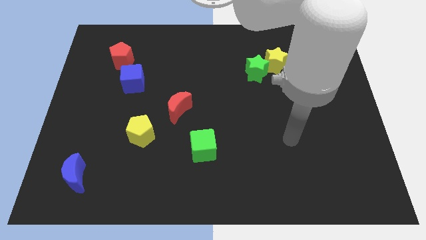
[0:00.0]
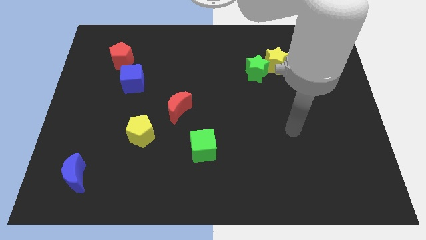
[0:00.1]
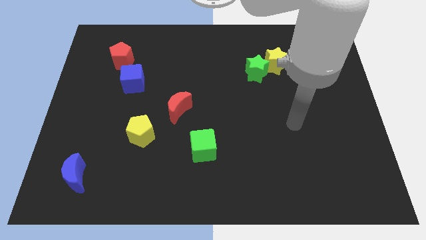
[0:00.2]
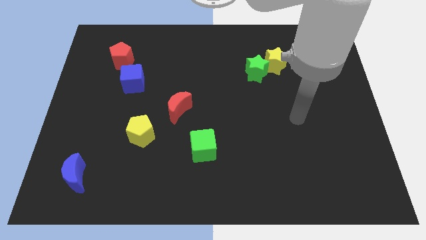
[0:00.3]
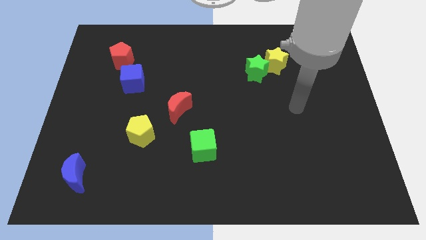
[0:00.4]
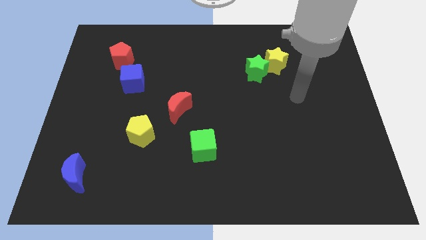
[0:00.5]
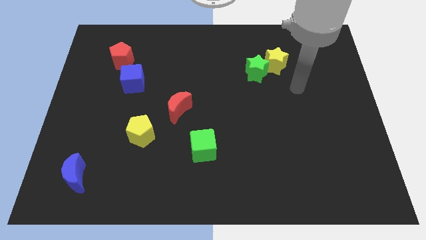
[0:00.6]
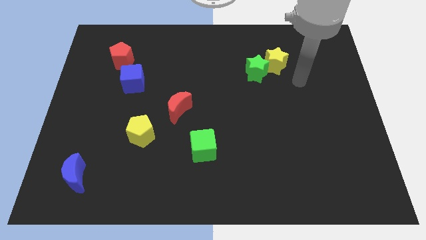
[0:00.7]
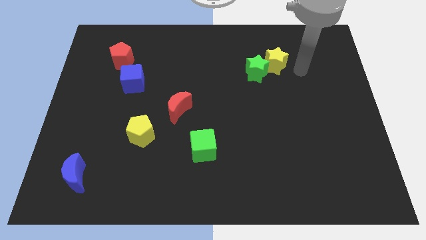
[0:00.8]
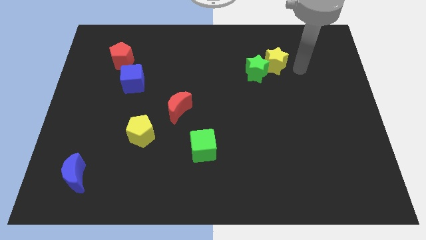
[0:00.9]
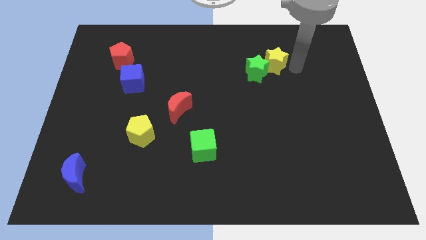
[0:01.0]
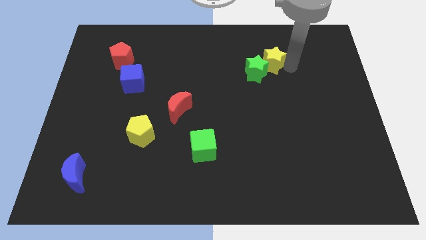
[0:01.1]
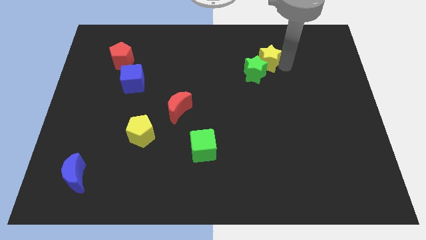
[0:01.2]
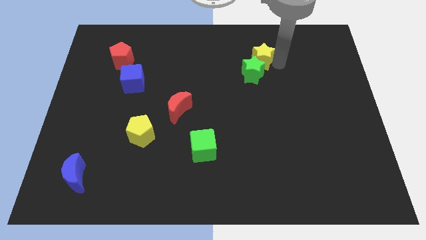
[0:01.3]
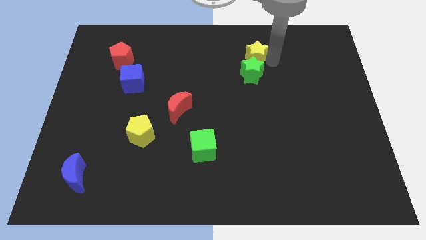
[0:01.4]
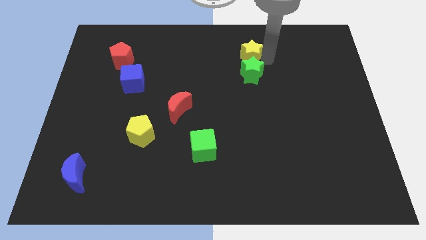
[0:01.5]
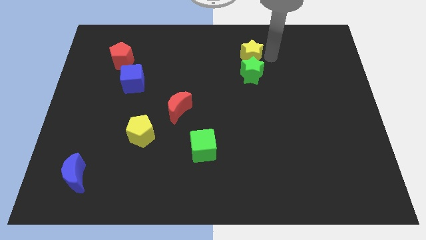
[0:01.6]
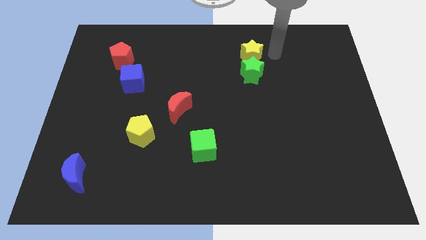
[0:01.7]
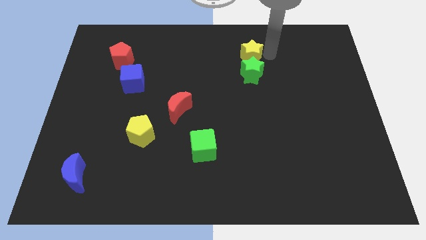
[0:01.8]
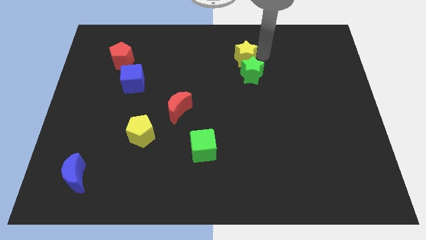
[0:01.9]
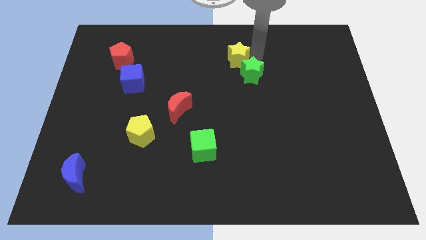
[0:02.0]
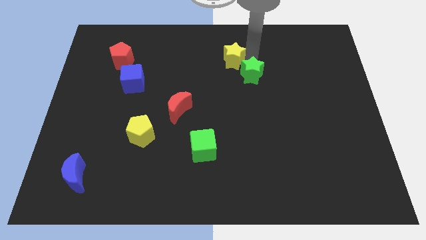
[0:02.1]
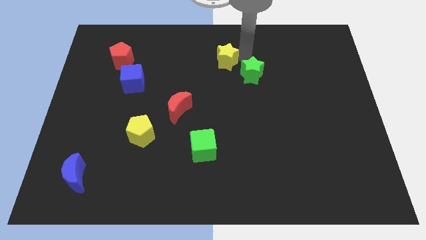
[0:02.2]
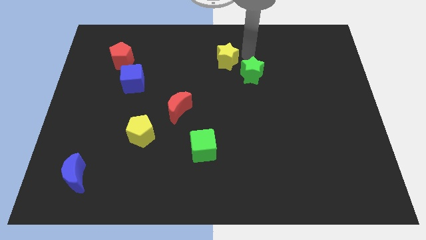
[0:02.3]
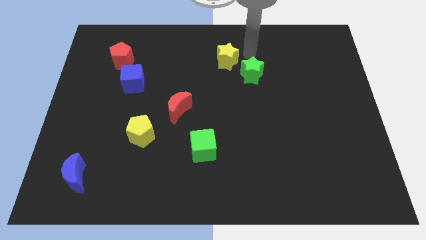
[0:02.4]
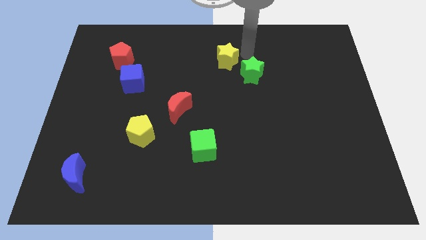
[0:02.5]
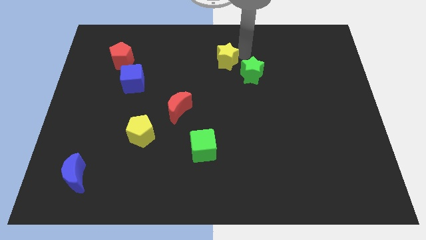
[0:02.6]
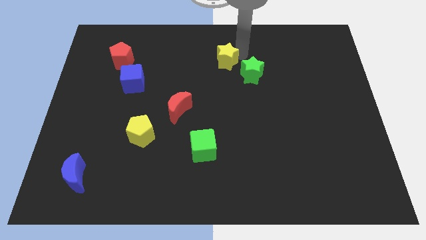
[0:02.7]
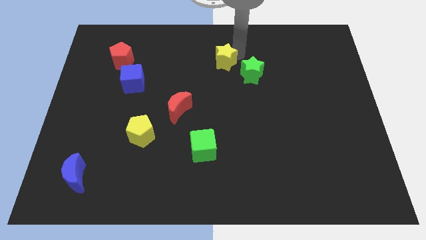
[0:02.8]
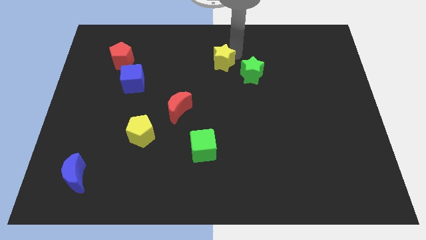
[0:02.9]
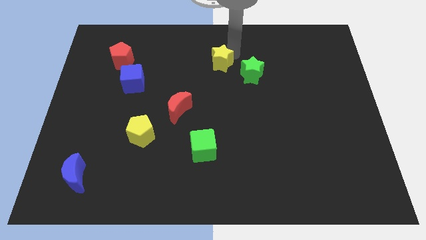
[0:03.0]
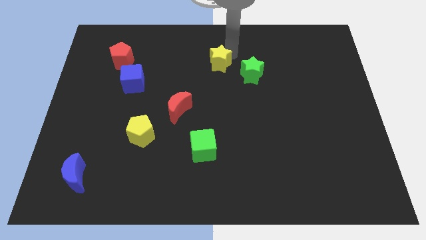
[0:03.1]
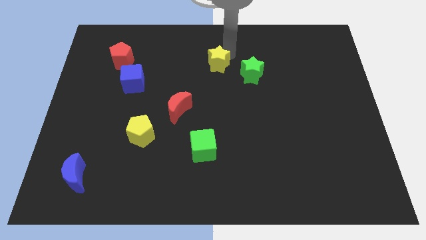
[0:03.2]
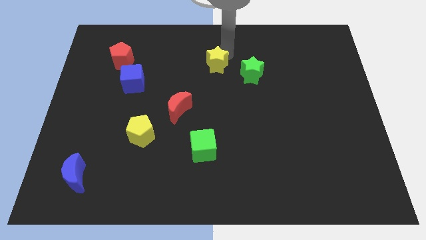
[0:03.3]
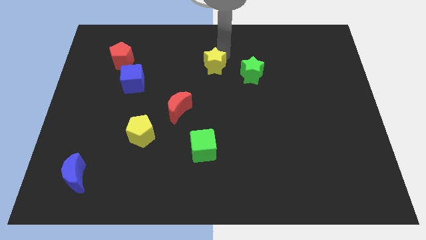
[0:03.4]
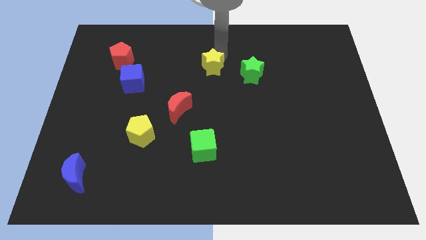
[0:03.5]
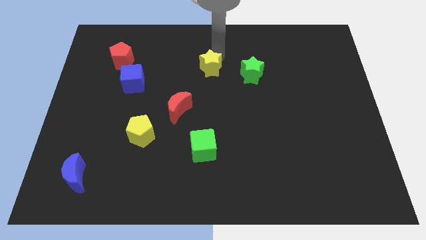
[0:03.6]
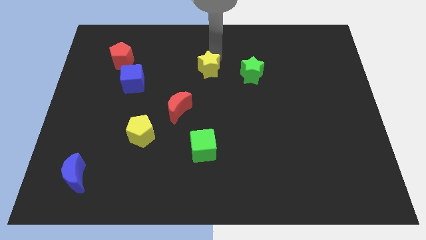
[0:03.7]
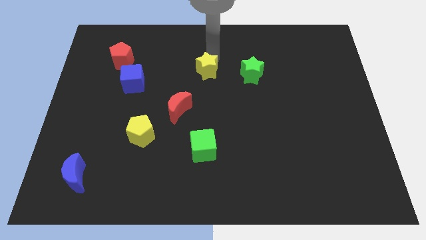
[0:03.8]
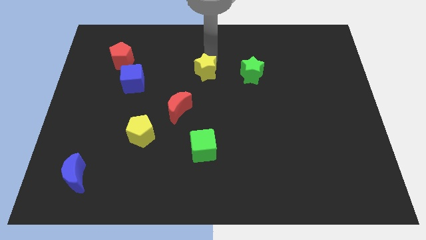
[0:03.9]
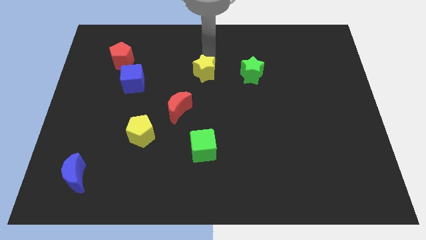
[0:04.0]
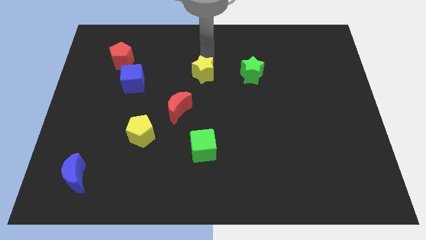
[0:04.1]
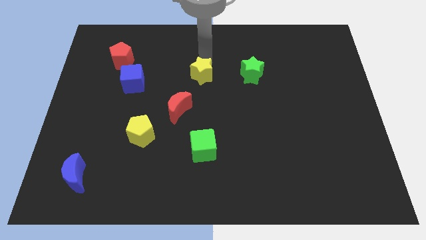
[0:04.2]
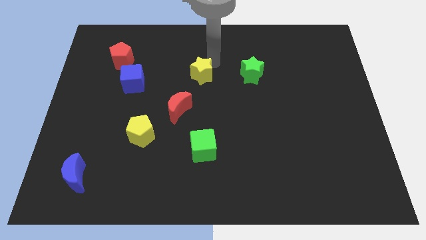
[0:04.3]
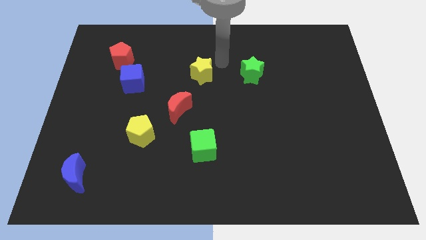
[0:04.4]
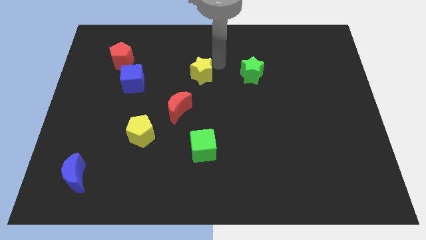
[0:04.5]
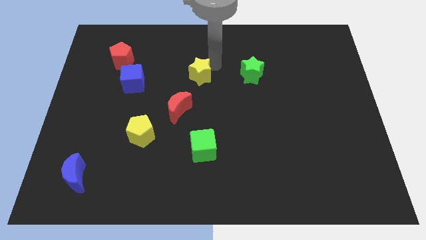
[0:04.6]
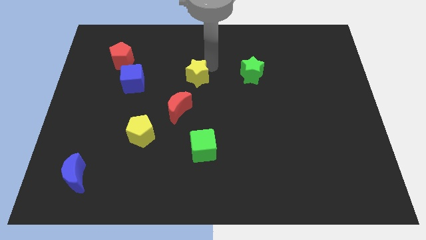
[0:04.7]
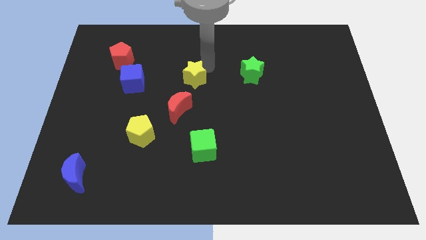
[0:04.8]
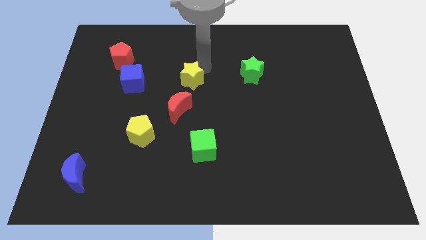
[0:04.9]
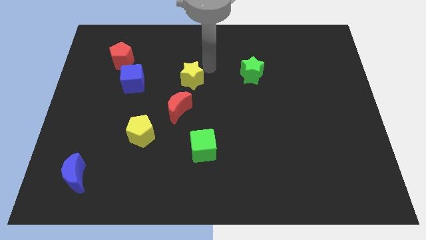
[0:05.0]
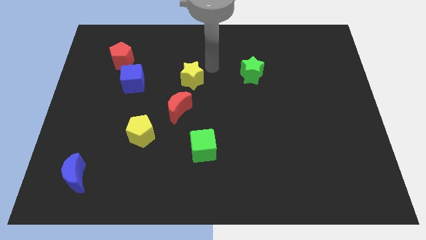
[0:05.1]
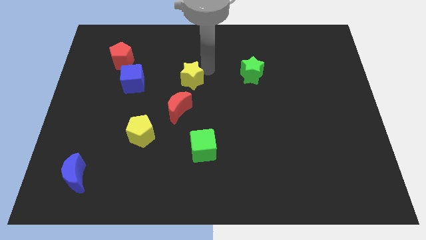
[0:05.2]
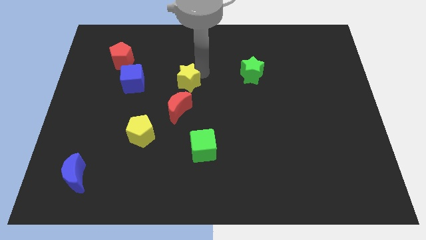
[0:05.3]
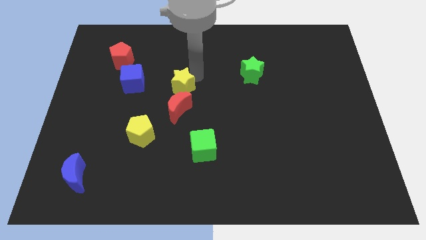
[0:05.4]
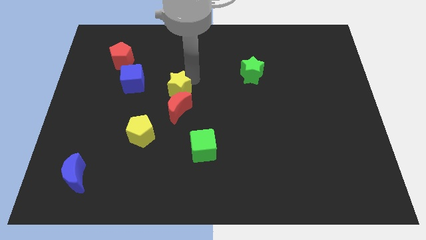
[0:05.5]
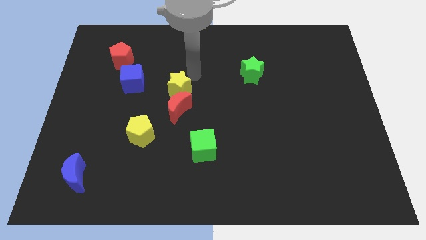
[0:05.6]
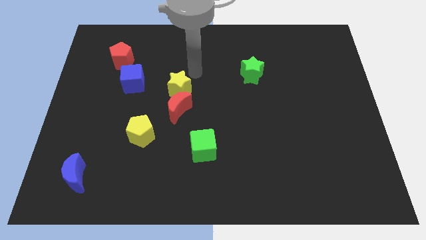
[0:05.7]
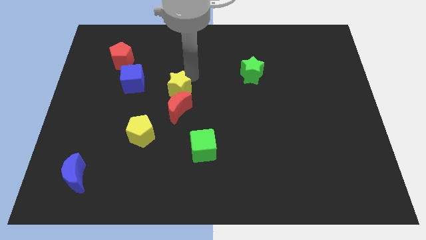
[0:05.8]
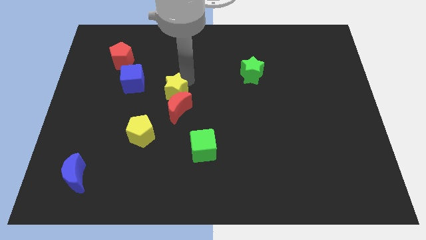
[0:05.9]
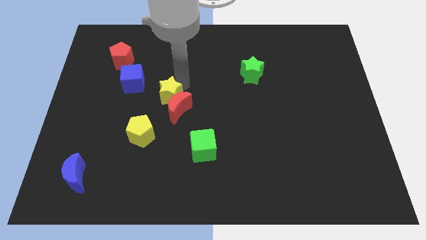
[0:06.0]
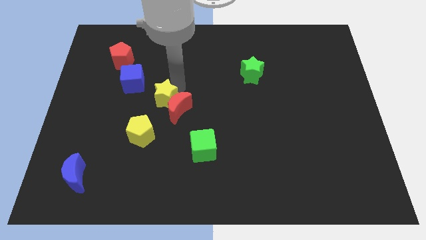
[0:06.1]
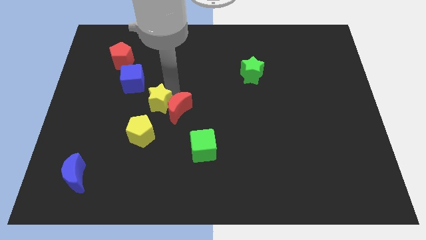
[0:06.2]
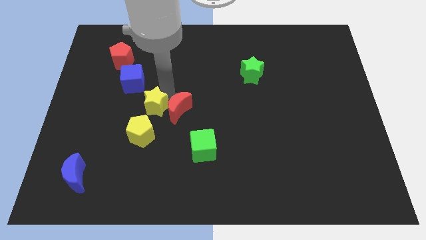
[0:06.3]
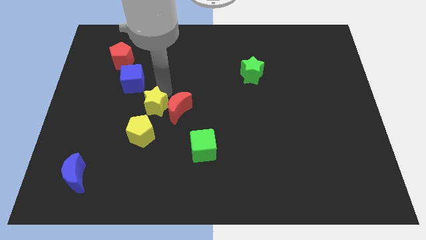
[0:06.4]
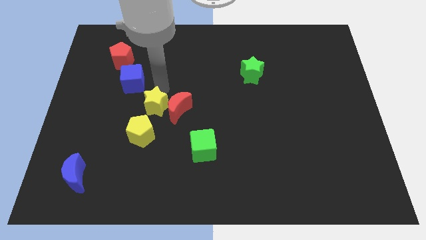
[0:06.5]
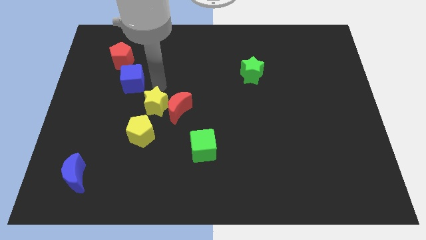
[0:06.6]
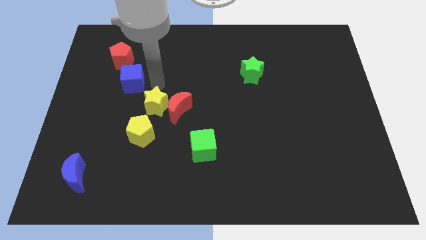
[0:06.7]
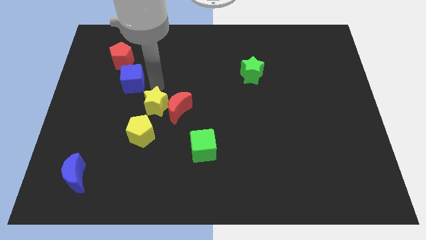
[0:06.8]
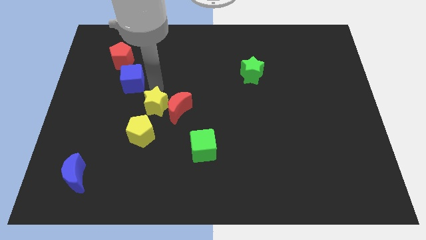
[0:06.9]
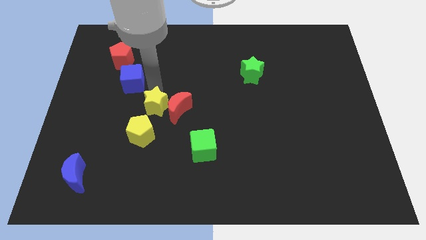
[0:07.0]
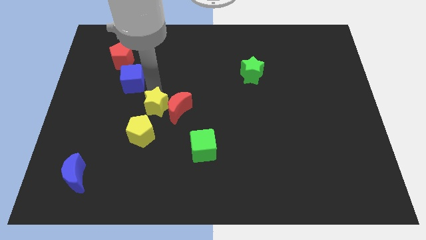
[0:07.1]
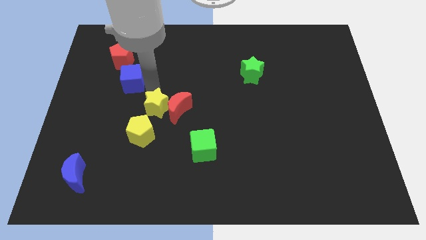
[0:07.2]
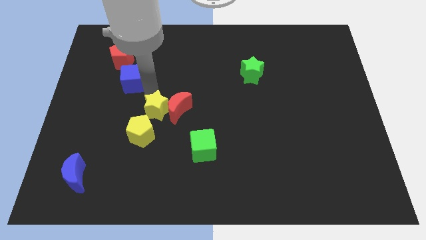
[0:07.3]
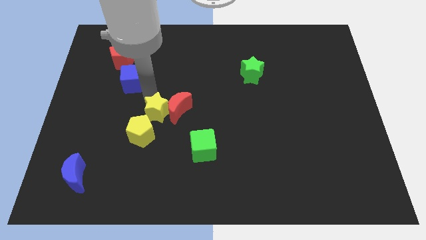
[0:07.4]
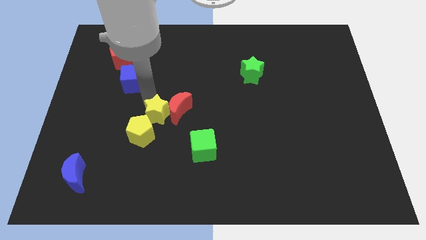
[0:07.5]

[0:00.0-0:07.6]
put the yellow star towards the yellow pentagon
